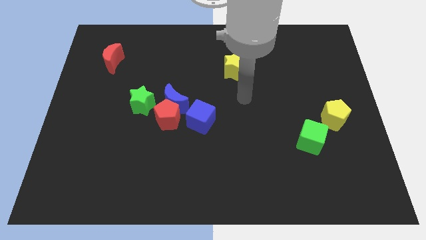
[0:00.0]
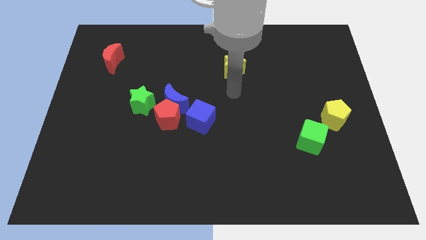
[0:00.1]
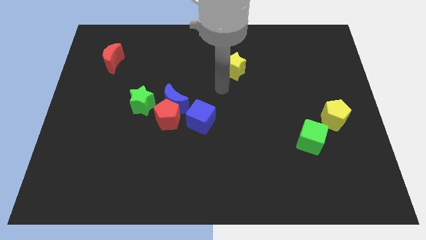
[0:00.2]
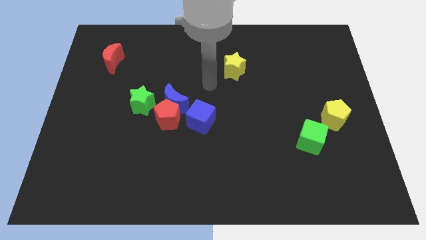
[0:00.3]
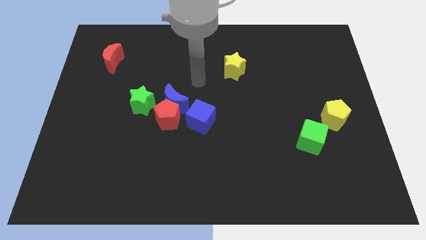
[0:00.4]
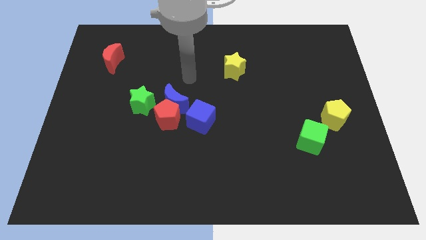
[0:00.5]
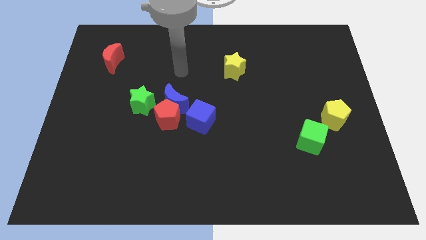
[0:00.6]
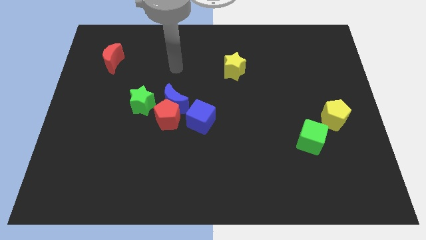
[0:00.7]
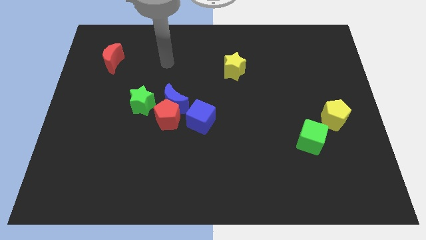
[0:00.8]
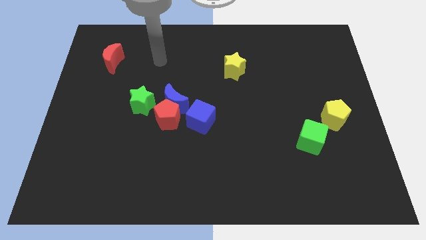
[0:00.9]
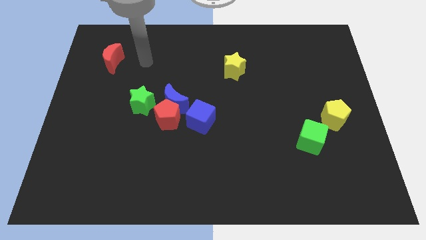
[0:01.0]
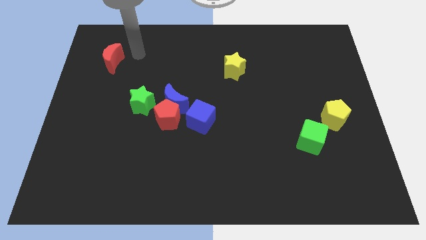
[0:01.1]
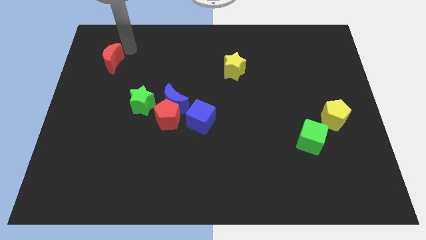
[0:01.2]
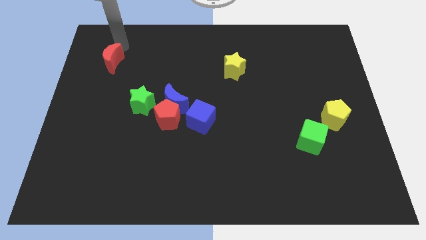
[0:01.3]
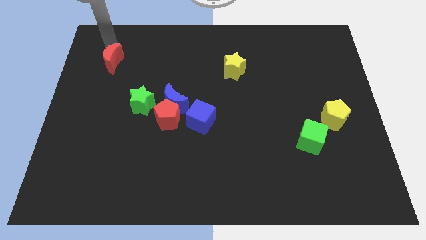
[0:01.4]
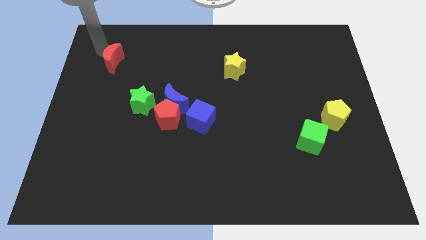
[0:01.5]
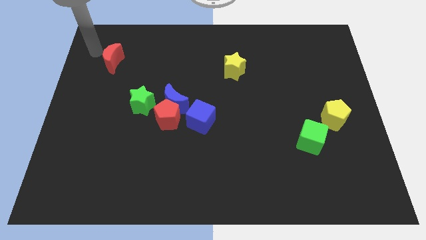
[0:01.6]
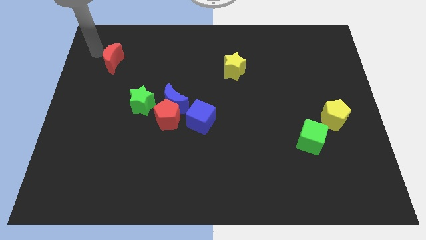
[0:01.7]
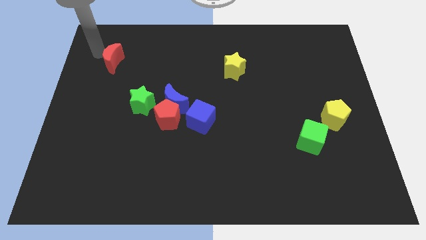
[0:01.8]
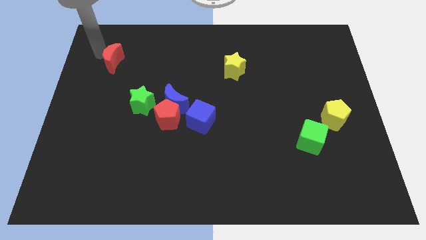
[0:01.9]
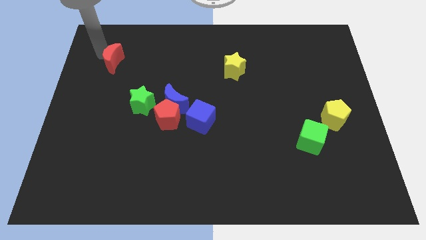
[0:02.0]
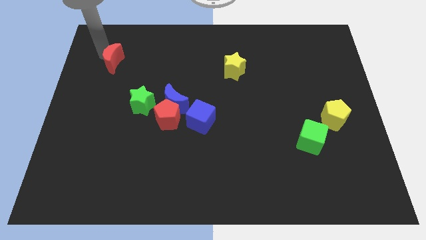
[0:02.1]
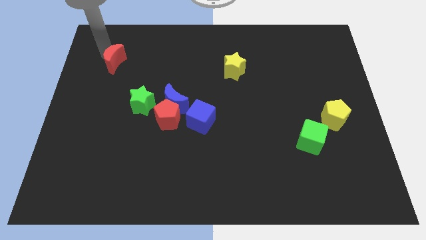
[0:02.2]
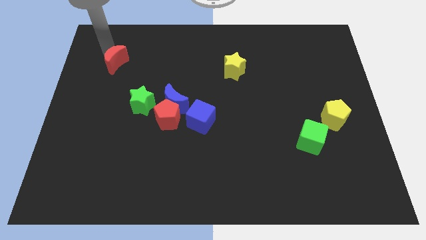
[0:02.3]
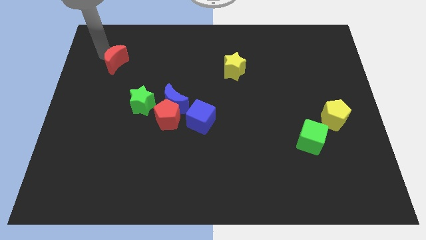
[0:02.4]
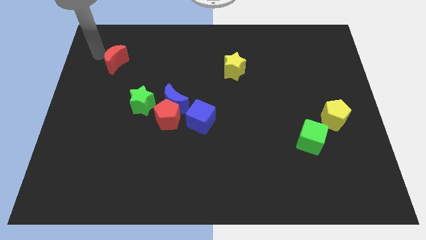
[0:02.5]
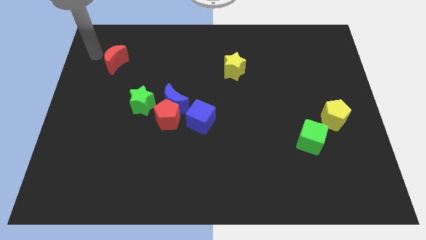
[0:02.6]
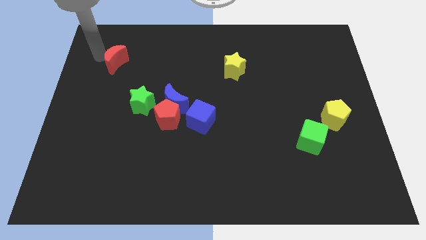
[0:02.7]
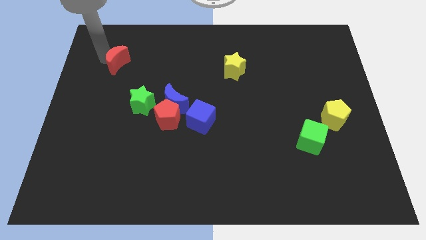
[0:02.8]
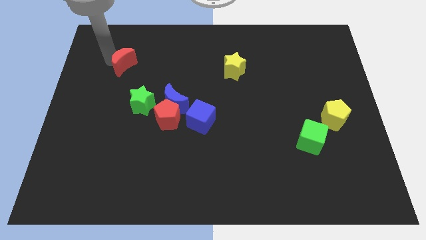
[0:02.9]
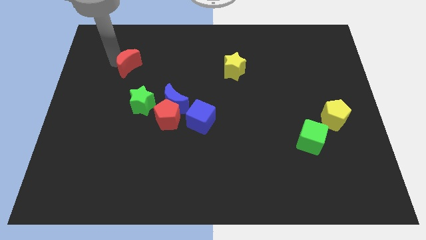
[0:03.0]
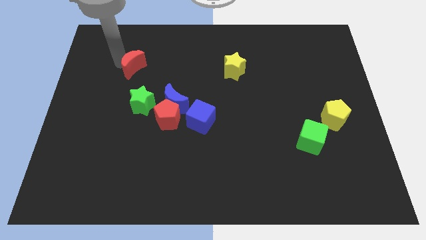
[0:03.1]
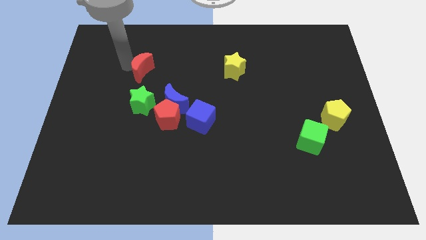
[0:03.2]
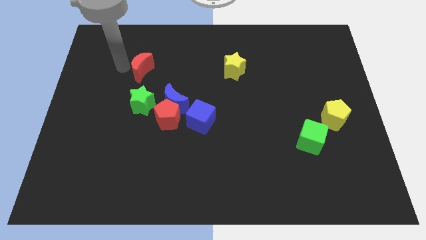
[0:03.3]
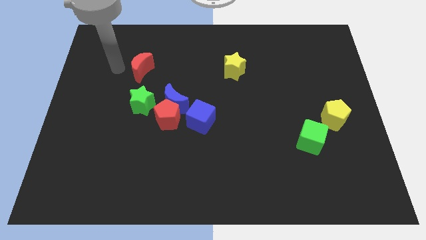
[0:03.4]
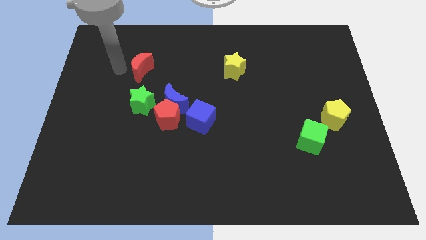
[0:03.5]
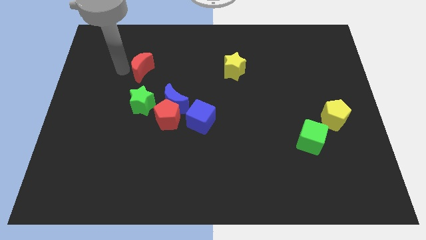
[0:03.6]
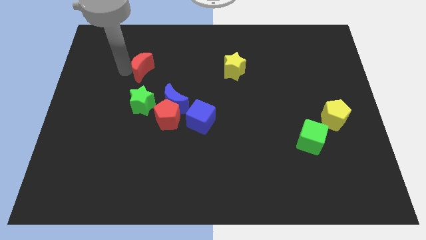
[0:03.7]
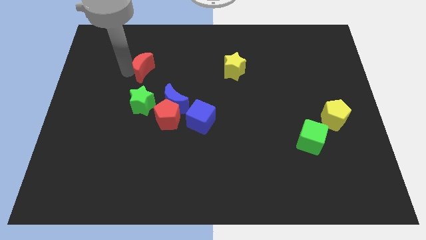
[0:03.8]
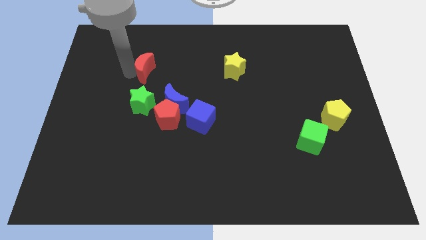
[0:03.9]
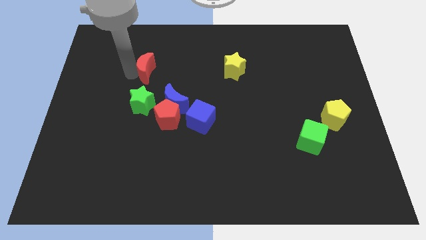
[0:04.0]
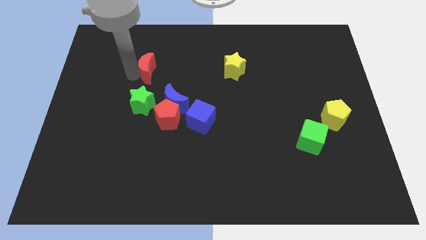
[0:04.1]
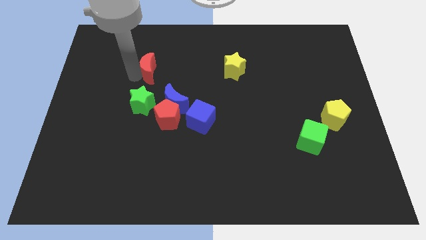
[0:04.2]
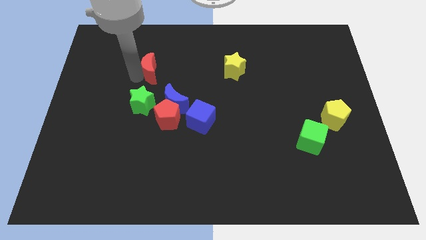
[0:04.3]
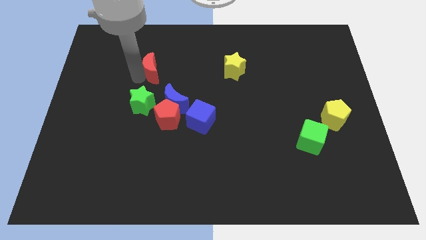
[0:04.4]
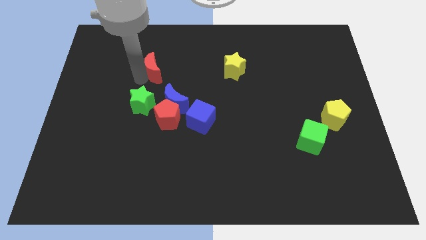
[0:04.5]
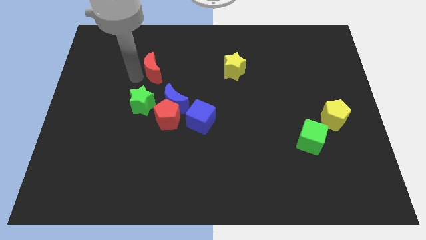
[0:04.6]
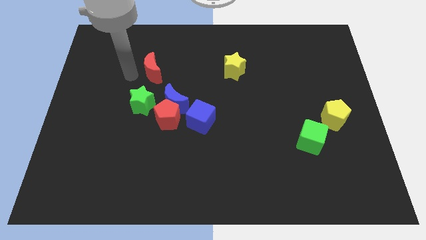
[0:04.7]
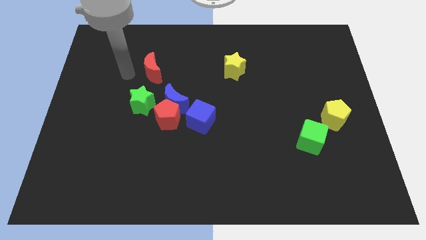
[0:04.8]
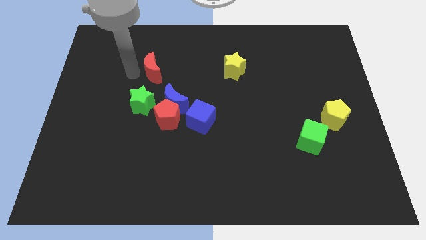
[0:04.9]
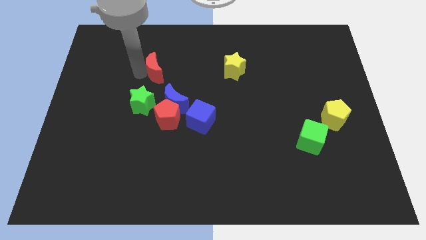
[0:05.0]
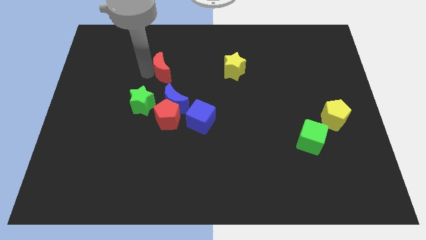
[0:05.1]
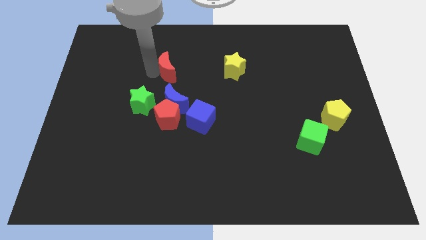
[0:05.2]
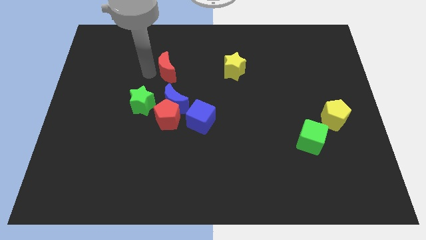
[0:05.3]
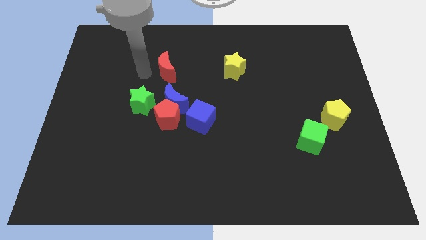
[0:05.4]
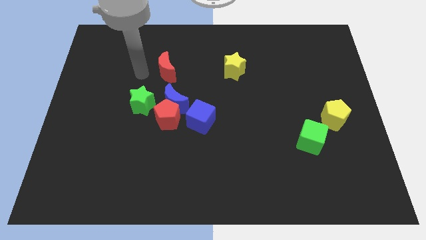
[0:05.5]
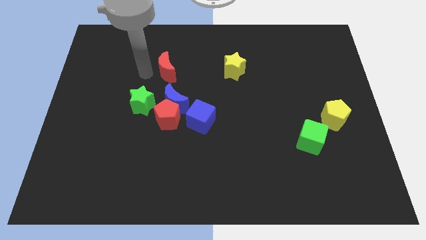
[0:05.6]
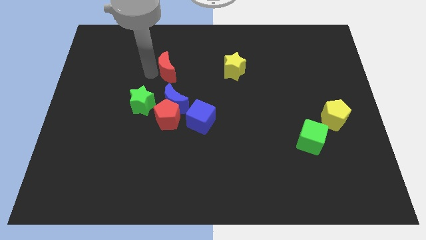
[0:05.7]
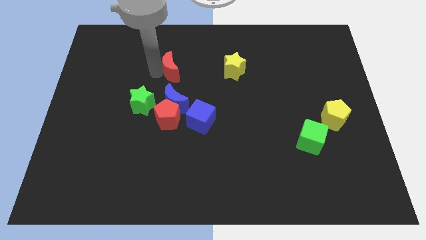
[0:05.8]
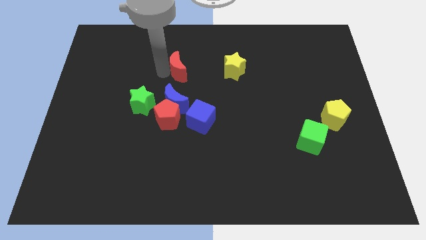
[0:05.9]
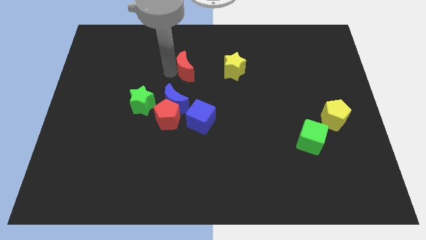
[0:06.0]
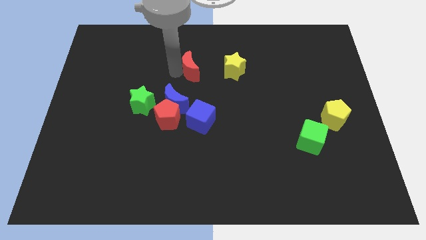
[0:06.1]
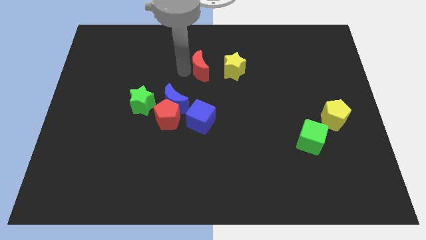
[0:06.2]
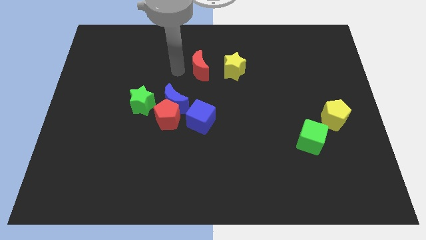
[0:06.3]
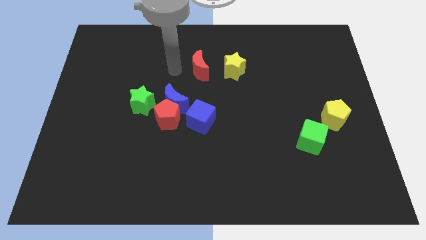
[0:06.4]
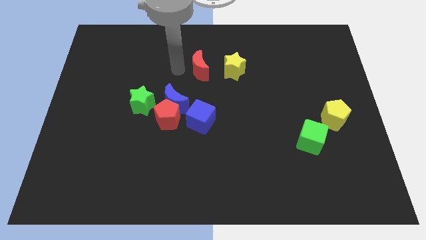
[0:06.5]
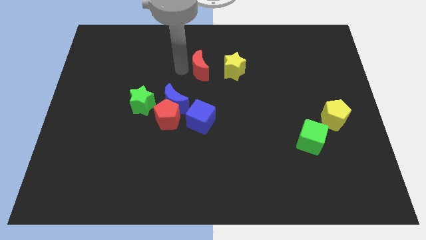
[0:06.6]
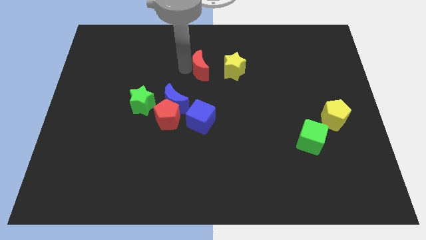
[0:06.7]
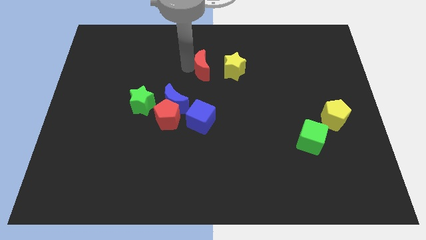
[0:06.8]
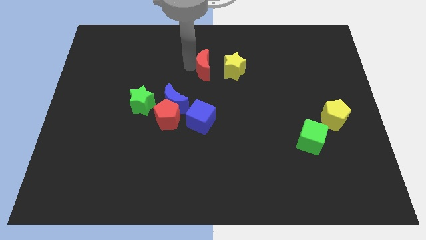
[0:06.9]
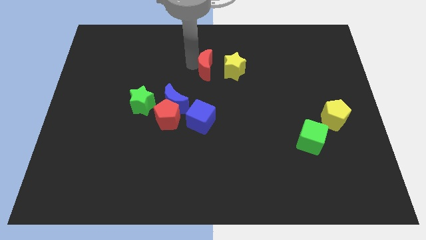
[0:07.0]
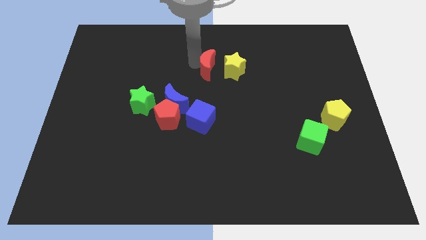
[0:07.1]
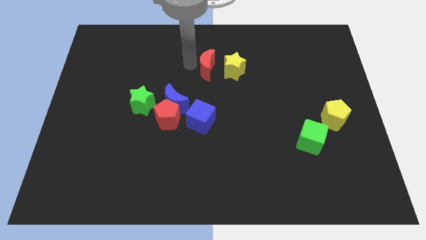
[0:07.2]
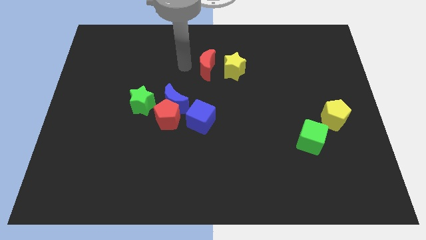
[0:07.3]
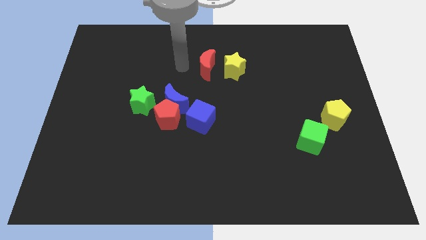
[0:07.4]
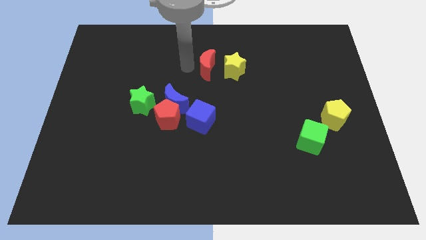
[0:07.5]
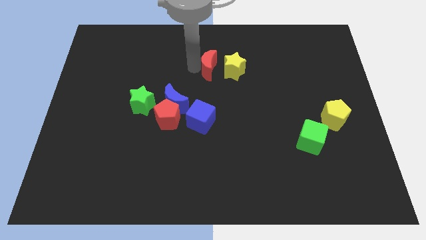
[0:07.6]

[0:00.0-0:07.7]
move the red moon close to the yellow star
